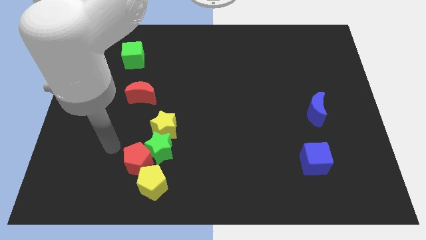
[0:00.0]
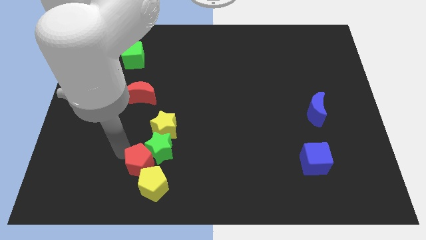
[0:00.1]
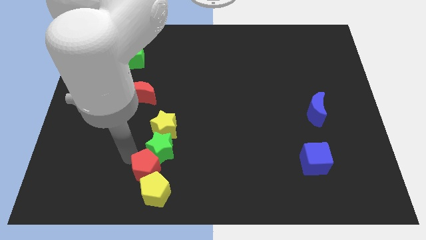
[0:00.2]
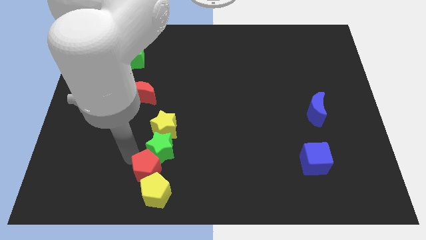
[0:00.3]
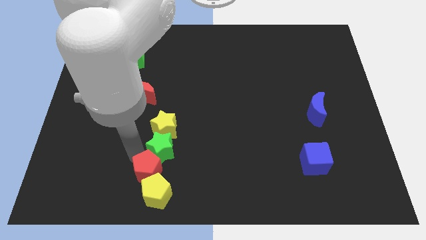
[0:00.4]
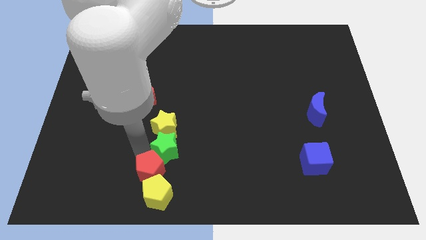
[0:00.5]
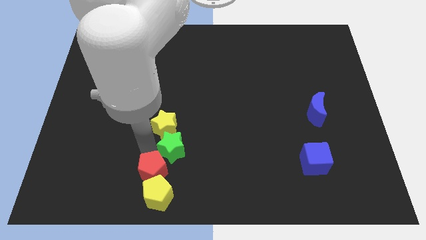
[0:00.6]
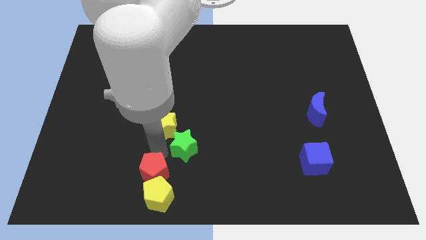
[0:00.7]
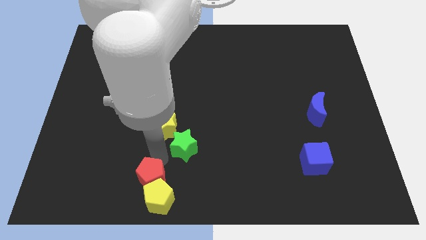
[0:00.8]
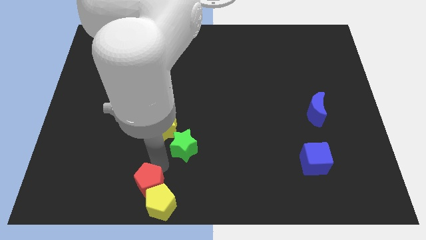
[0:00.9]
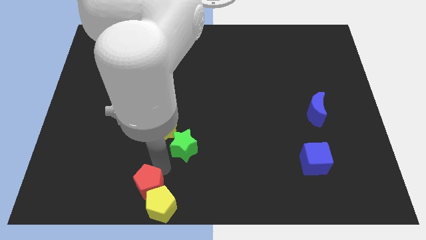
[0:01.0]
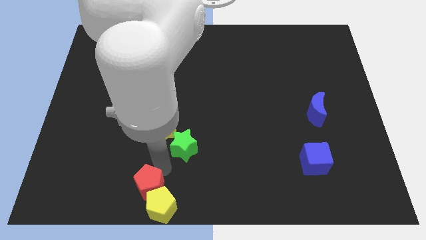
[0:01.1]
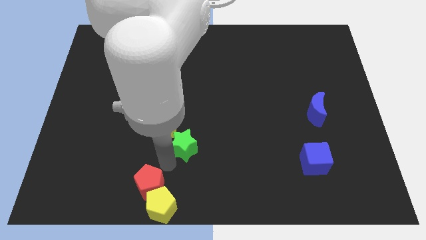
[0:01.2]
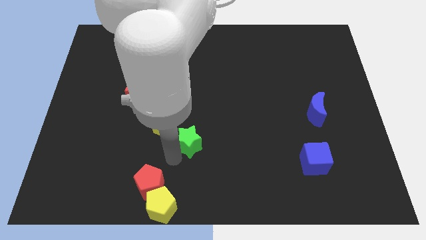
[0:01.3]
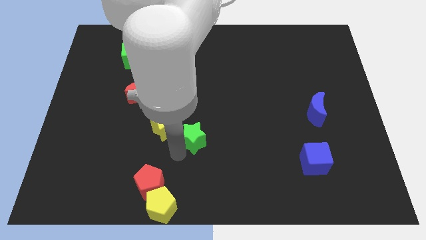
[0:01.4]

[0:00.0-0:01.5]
move the green star away from the yellow star, red pentagon, and yellow pentagon

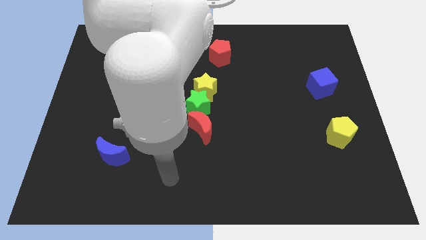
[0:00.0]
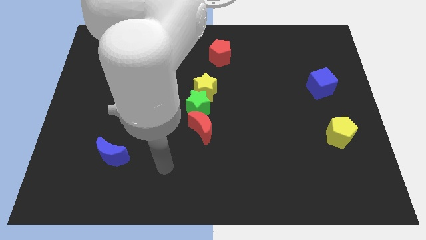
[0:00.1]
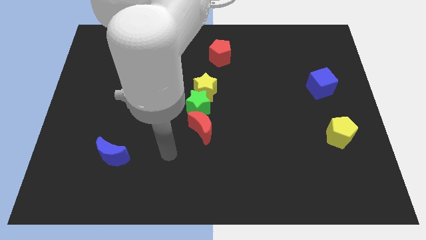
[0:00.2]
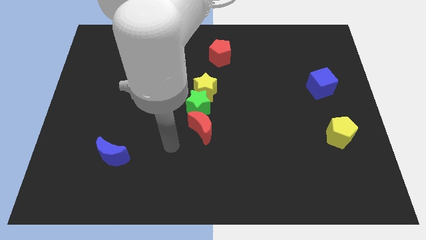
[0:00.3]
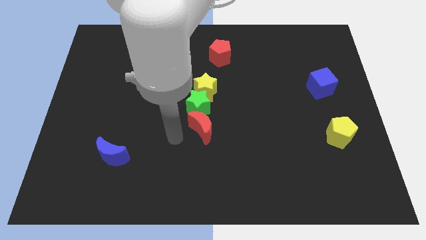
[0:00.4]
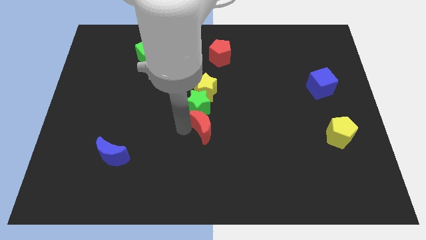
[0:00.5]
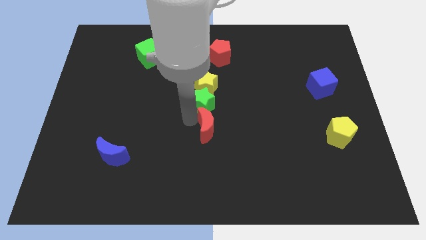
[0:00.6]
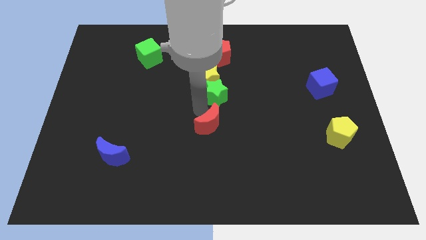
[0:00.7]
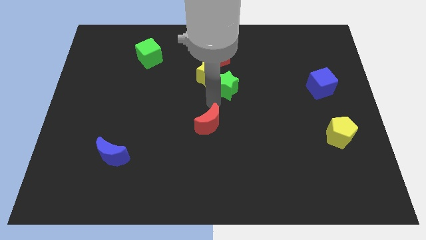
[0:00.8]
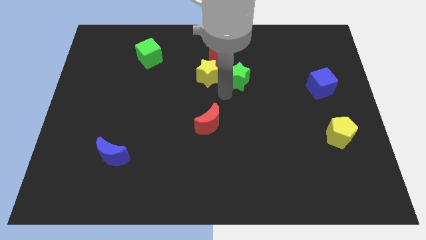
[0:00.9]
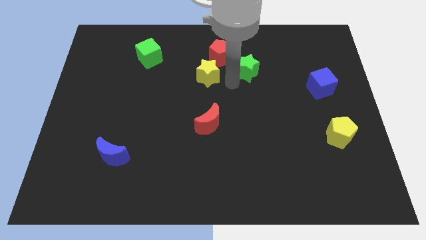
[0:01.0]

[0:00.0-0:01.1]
pull the yellow star apart from the green star

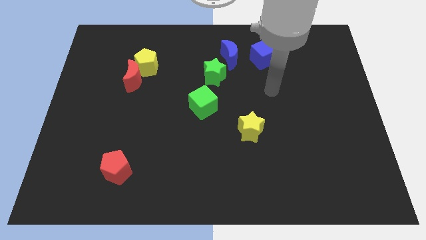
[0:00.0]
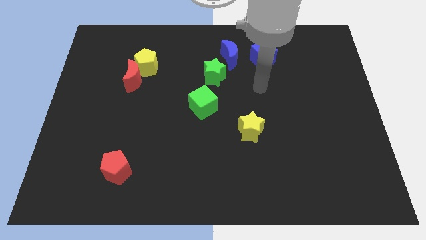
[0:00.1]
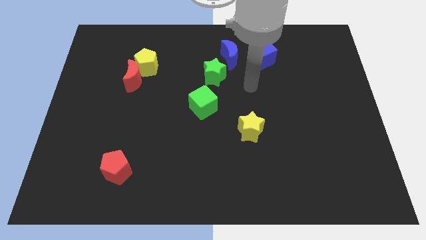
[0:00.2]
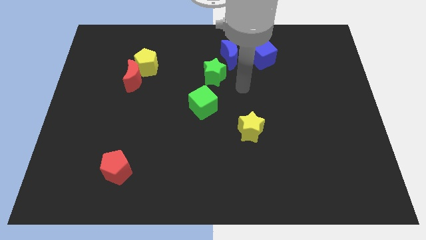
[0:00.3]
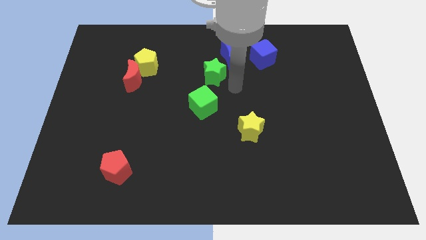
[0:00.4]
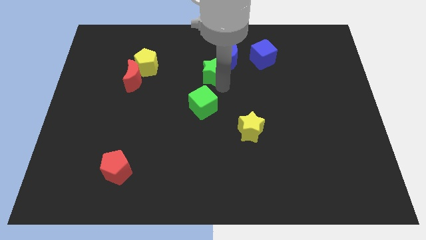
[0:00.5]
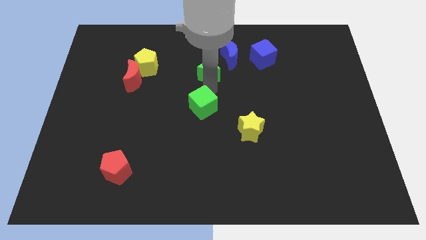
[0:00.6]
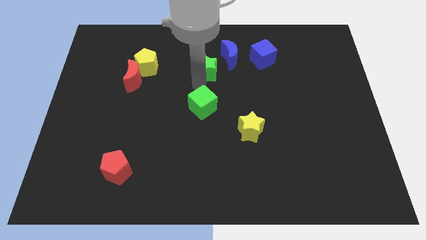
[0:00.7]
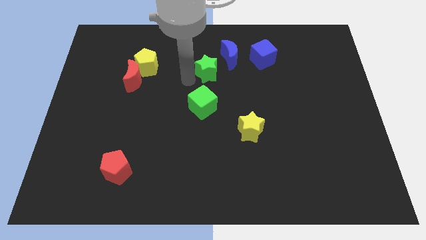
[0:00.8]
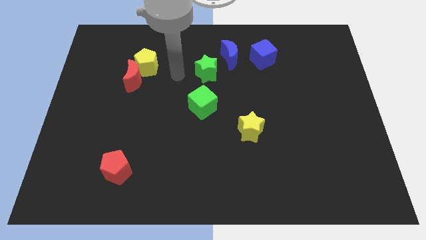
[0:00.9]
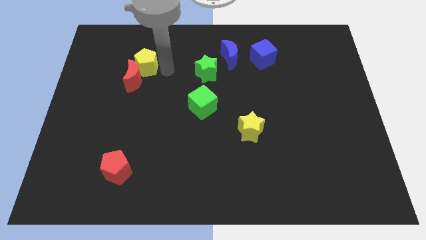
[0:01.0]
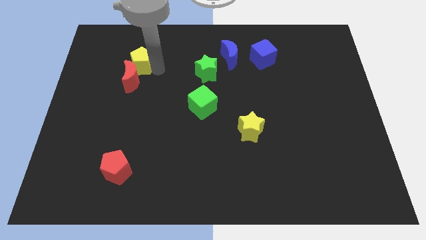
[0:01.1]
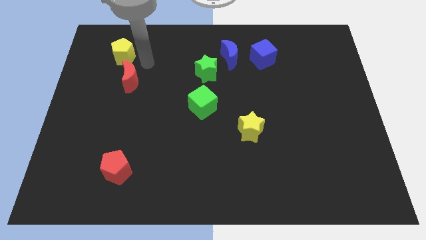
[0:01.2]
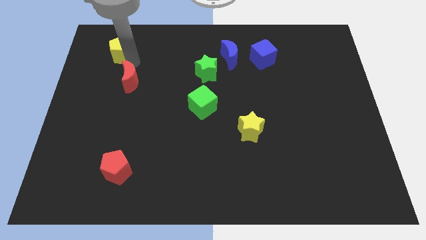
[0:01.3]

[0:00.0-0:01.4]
separate the red moon from the yellow pentagon

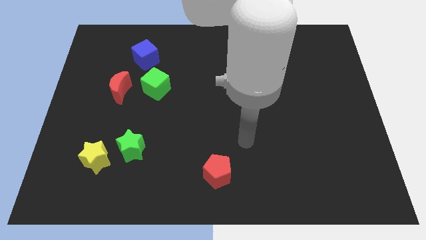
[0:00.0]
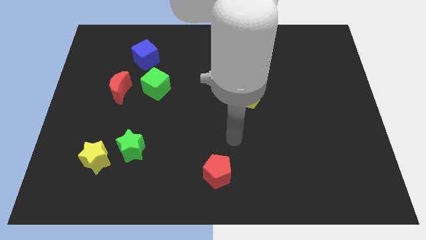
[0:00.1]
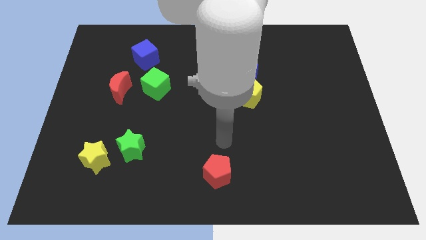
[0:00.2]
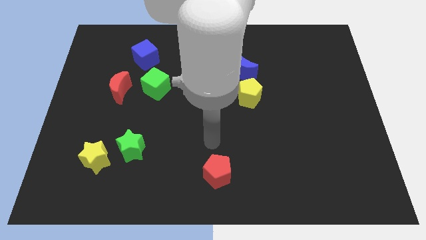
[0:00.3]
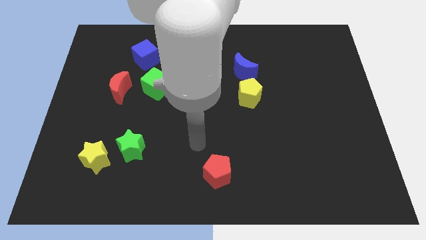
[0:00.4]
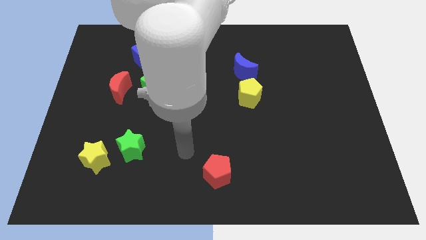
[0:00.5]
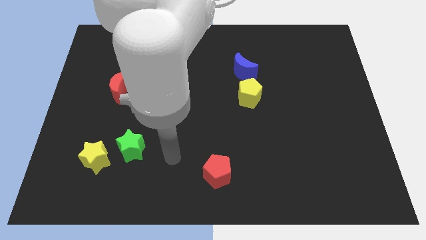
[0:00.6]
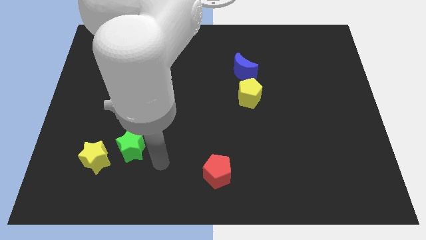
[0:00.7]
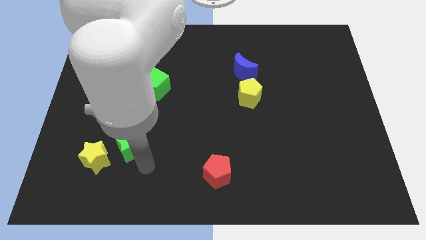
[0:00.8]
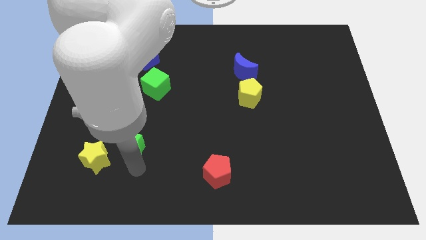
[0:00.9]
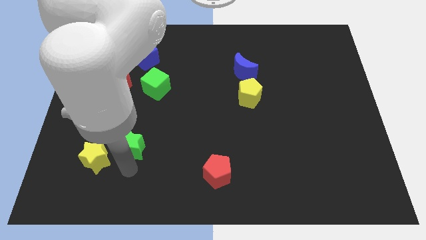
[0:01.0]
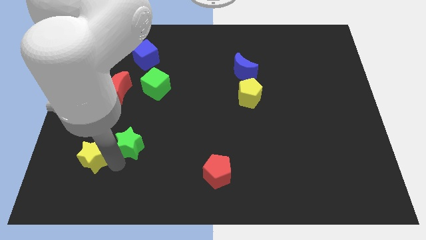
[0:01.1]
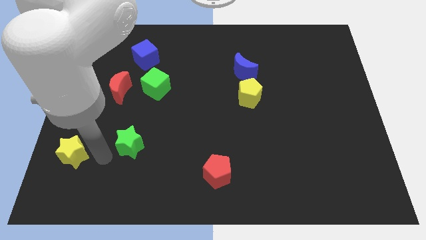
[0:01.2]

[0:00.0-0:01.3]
move the green star away from the yellow star

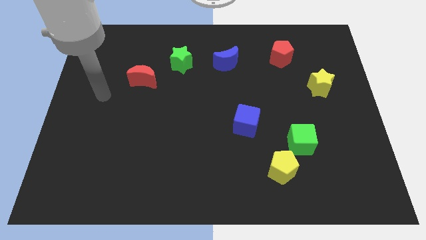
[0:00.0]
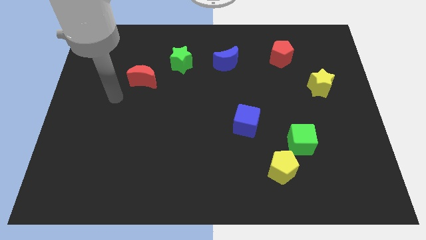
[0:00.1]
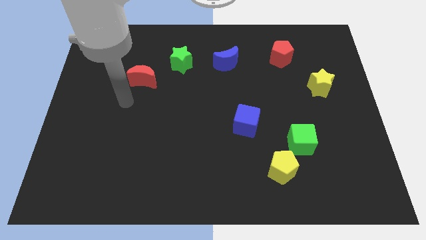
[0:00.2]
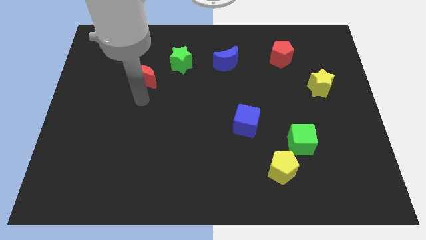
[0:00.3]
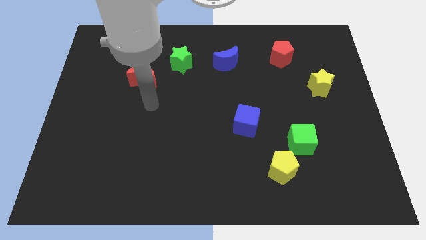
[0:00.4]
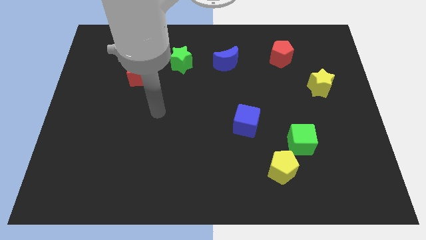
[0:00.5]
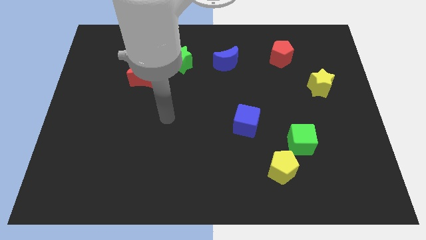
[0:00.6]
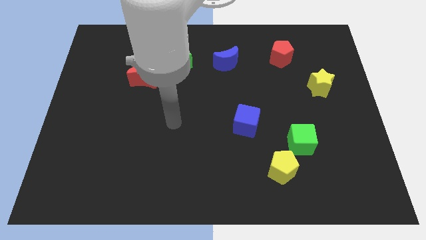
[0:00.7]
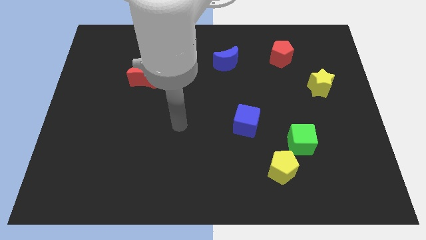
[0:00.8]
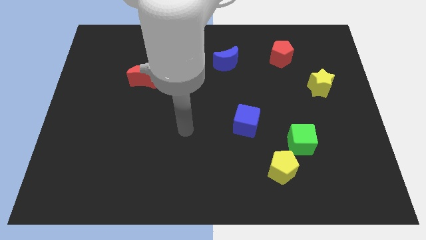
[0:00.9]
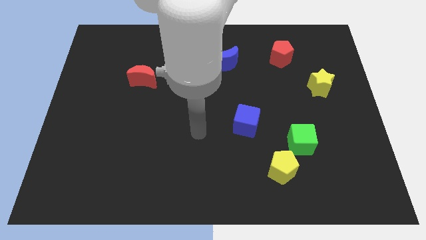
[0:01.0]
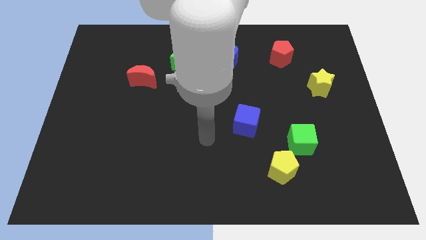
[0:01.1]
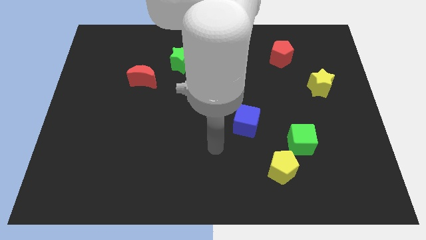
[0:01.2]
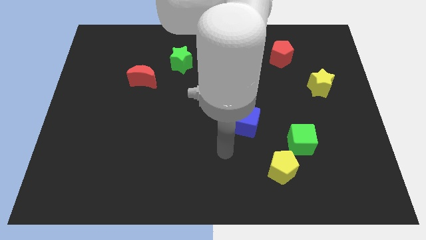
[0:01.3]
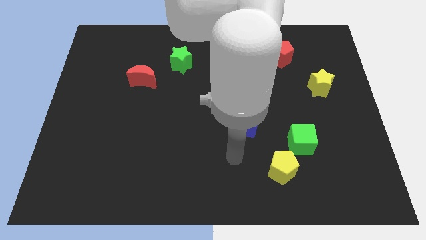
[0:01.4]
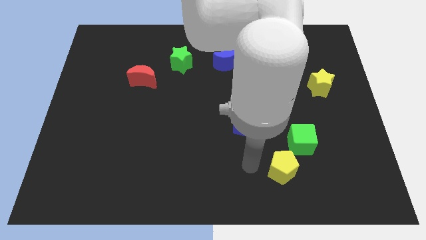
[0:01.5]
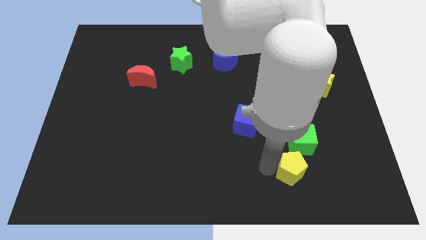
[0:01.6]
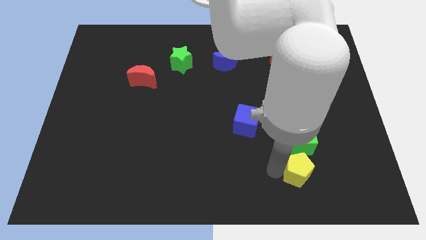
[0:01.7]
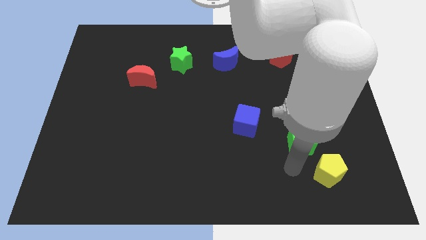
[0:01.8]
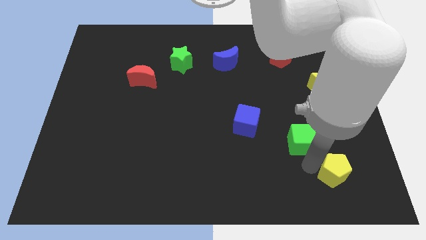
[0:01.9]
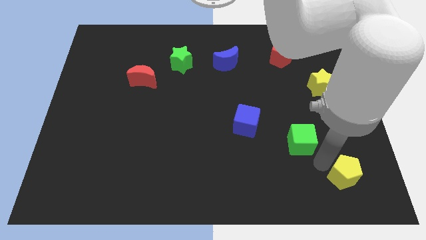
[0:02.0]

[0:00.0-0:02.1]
move the green cube away from the yellow pentagon

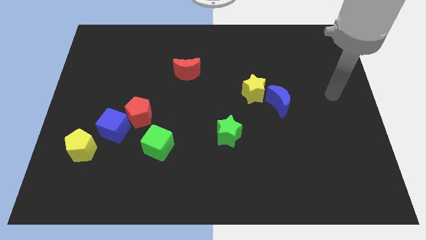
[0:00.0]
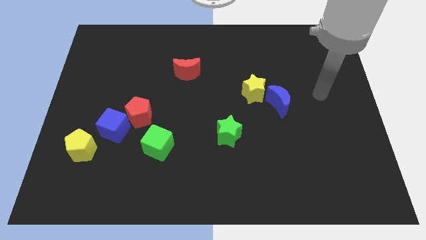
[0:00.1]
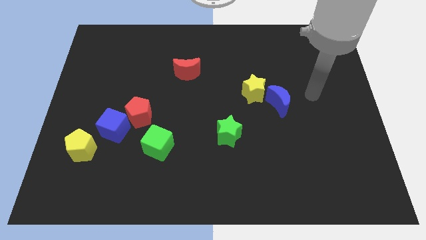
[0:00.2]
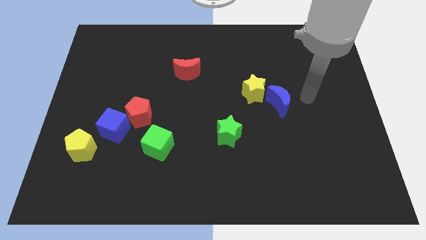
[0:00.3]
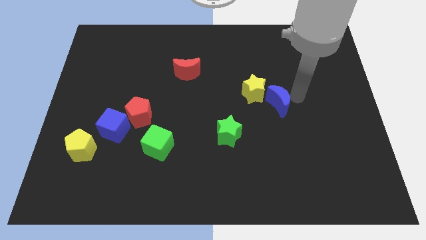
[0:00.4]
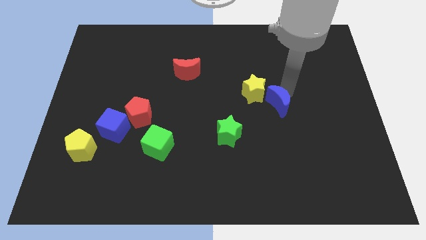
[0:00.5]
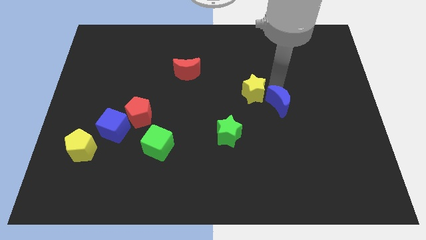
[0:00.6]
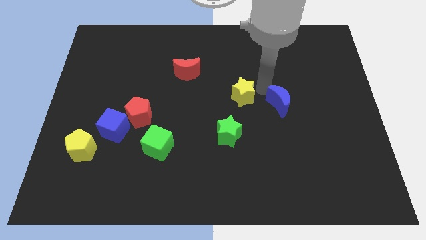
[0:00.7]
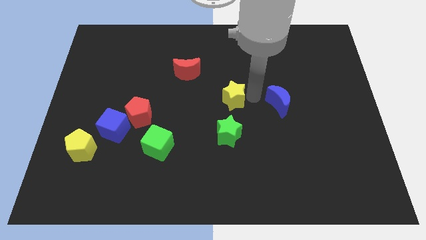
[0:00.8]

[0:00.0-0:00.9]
separate the blue moon from the yellow star

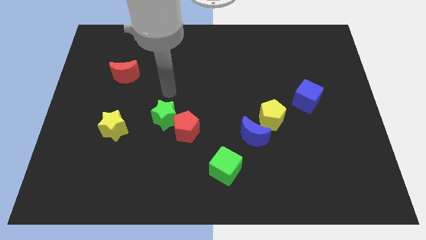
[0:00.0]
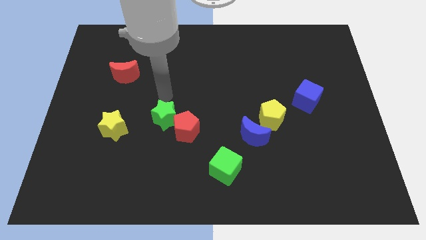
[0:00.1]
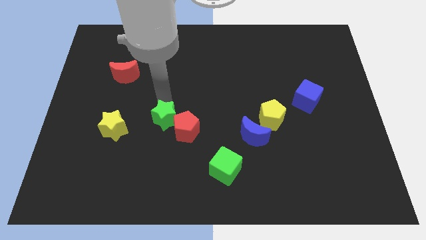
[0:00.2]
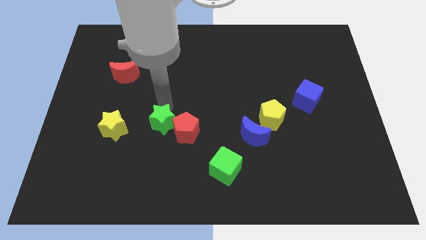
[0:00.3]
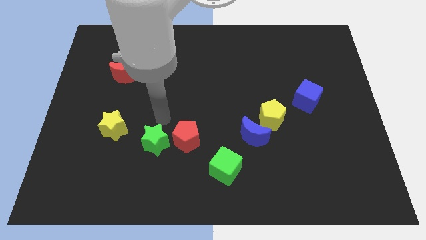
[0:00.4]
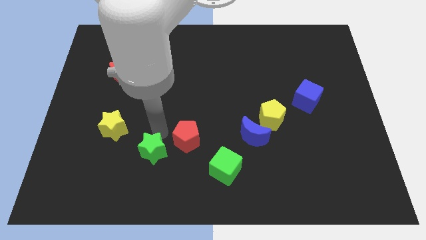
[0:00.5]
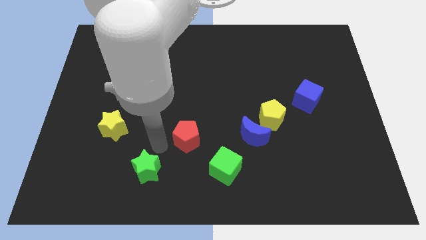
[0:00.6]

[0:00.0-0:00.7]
separate the red pentagon from the green star

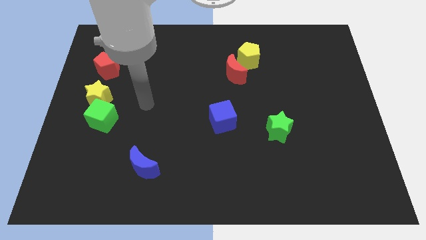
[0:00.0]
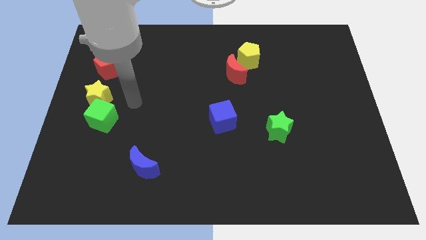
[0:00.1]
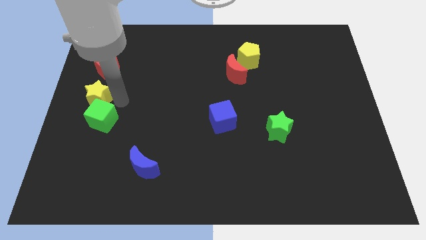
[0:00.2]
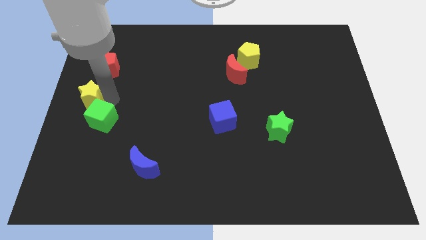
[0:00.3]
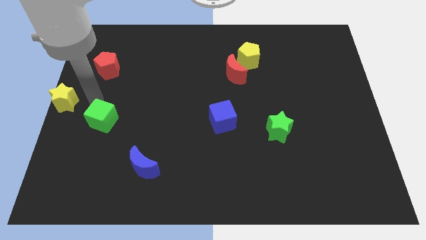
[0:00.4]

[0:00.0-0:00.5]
separate the green cube from the yellow star
